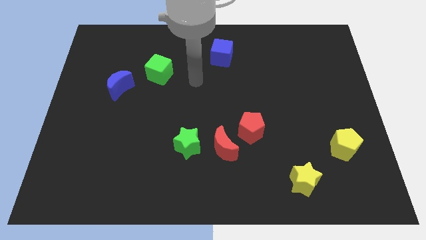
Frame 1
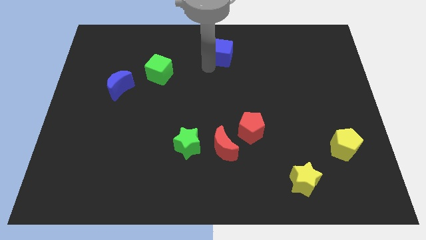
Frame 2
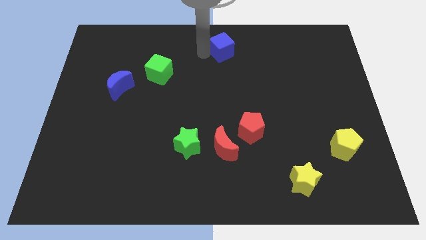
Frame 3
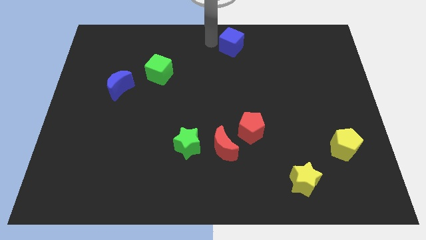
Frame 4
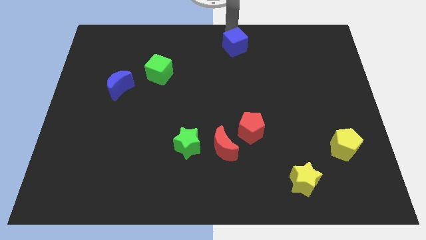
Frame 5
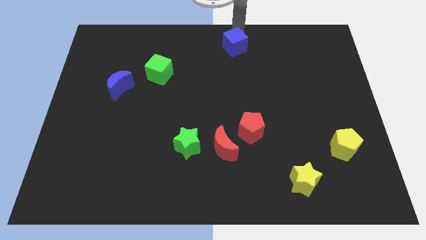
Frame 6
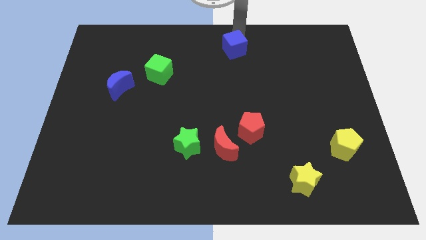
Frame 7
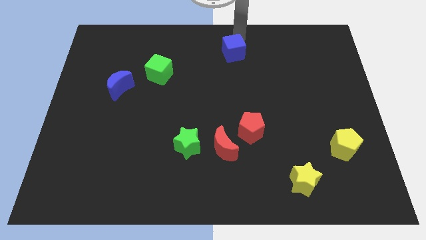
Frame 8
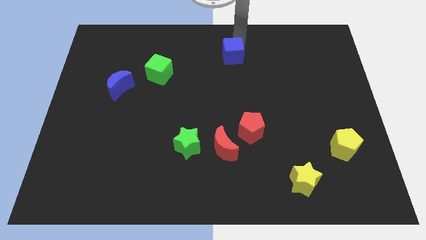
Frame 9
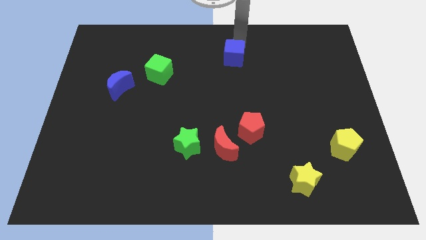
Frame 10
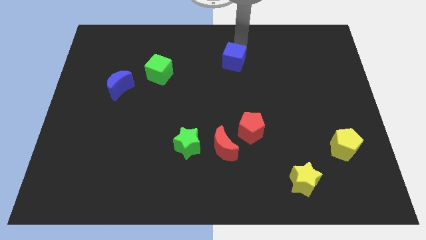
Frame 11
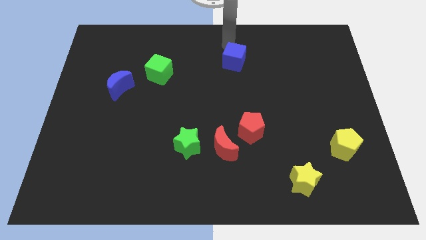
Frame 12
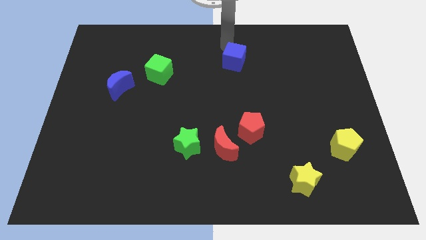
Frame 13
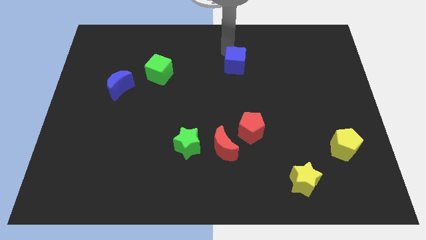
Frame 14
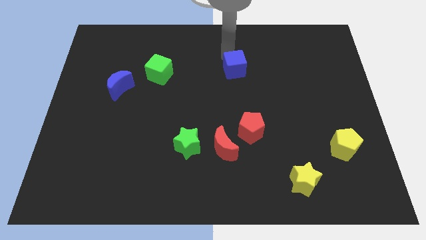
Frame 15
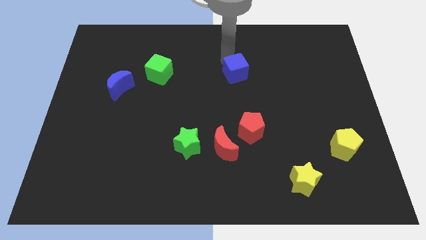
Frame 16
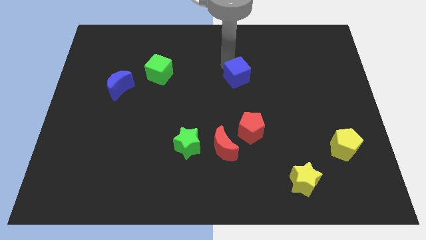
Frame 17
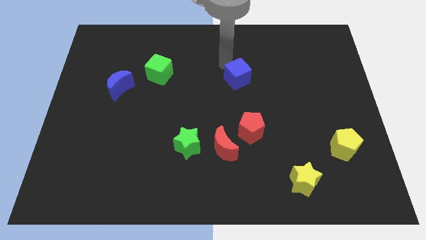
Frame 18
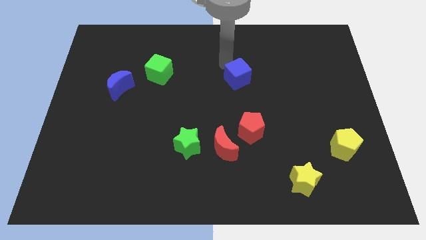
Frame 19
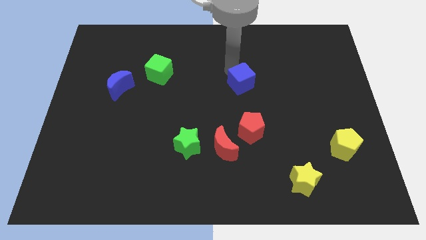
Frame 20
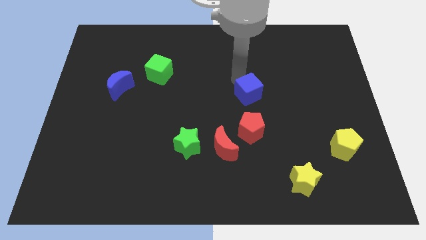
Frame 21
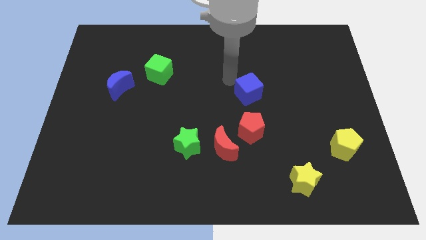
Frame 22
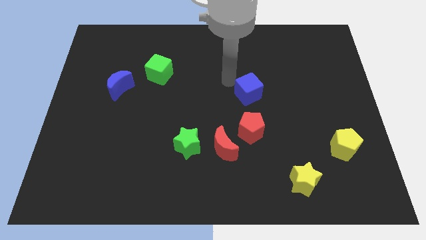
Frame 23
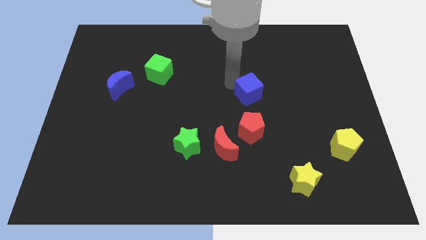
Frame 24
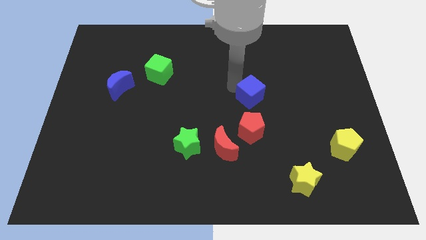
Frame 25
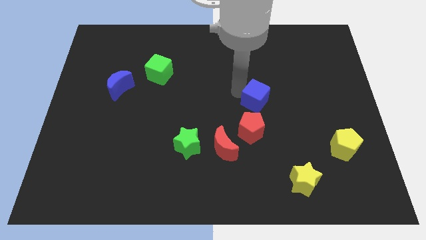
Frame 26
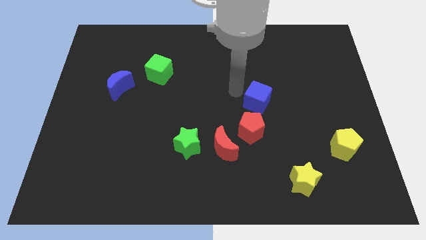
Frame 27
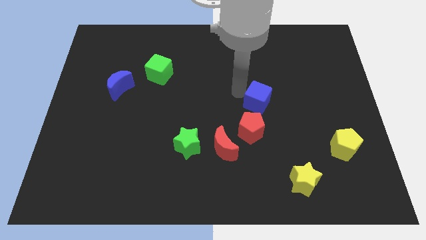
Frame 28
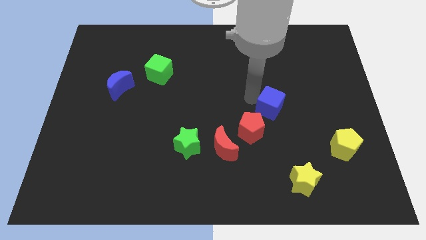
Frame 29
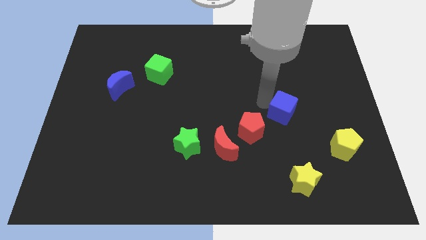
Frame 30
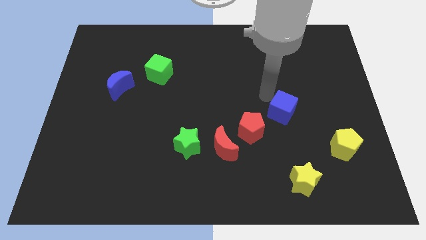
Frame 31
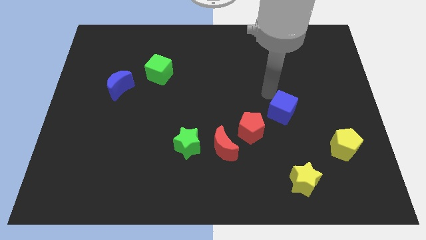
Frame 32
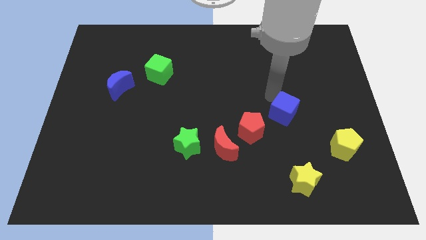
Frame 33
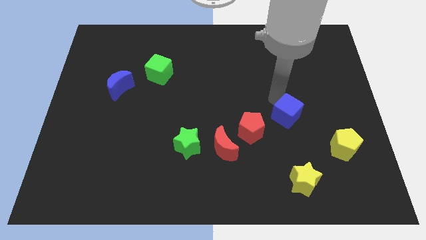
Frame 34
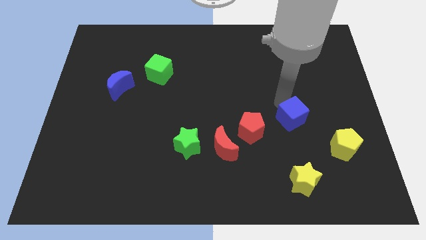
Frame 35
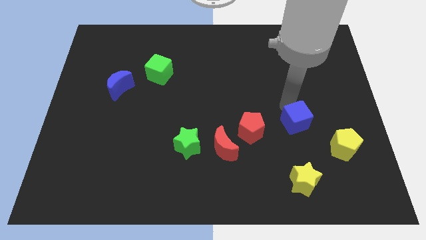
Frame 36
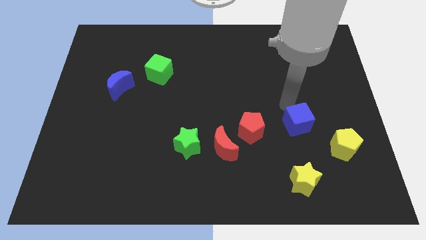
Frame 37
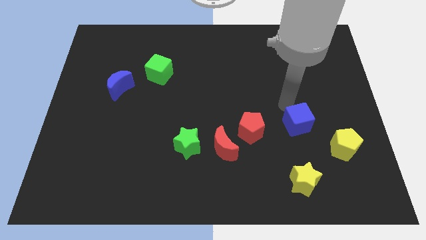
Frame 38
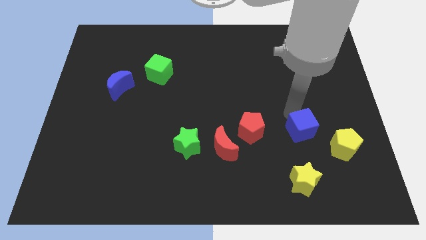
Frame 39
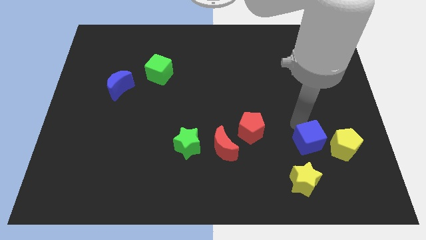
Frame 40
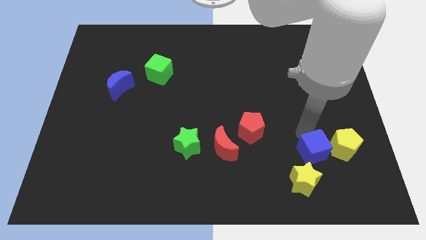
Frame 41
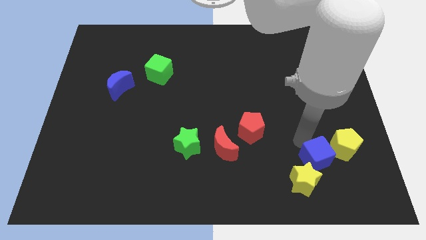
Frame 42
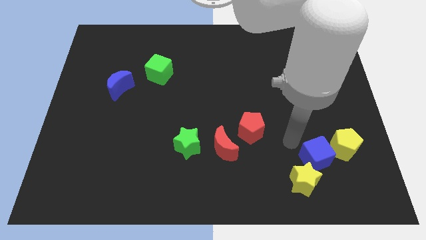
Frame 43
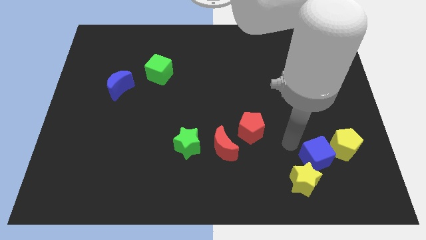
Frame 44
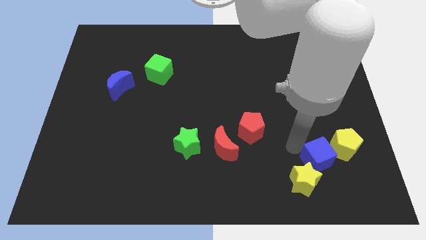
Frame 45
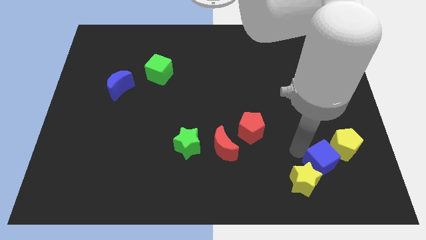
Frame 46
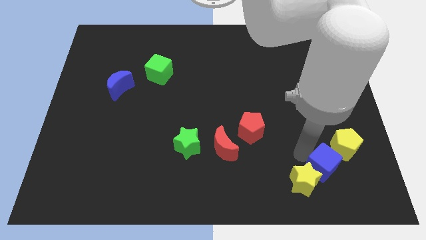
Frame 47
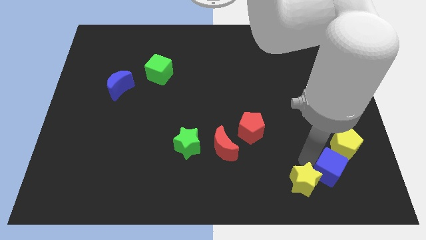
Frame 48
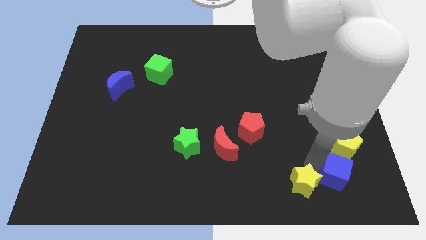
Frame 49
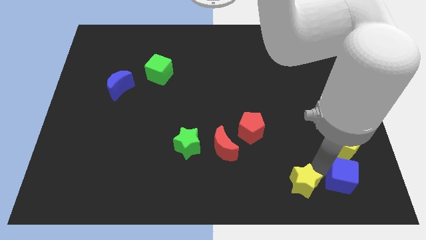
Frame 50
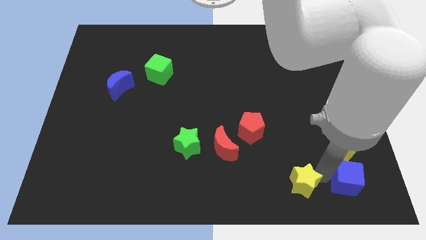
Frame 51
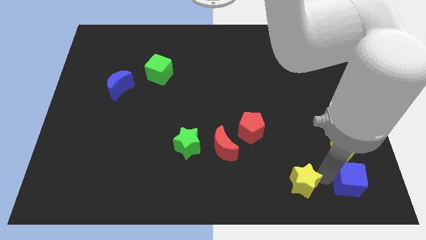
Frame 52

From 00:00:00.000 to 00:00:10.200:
put the blue cube to the bottom right

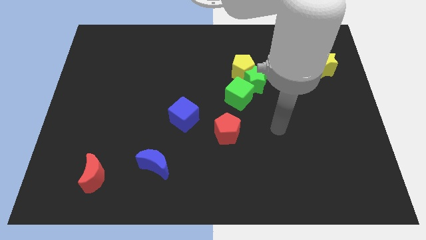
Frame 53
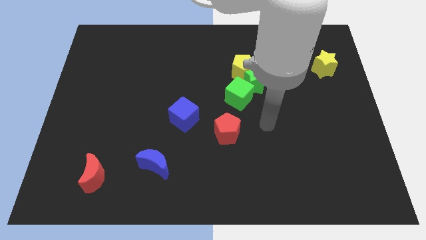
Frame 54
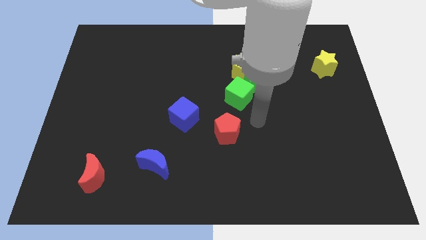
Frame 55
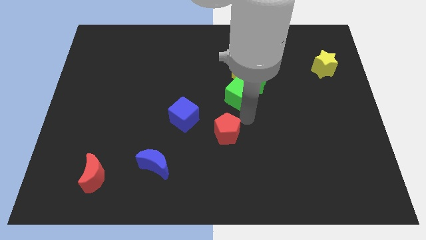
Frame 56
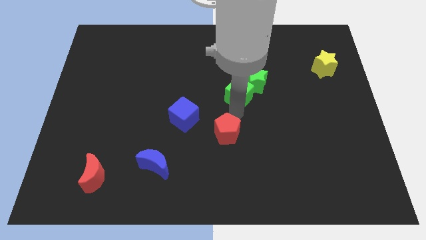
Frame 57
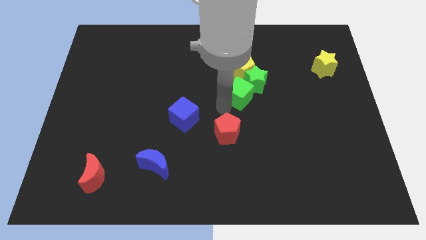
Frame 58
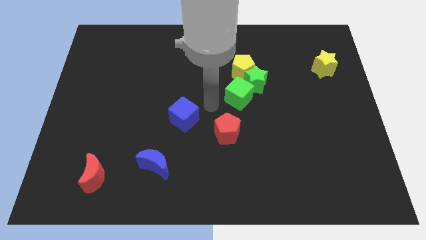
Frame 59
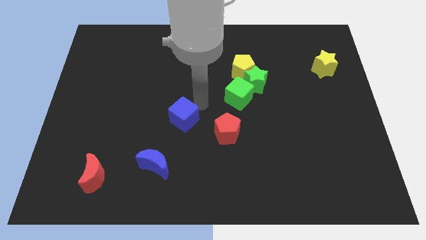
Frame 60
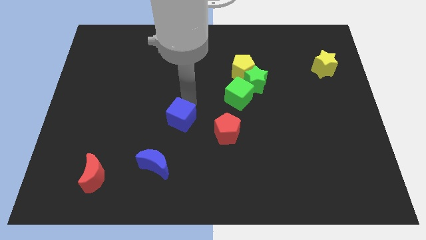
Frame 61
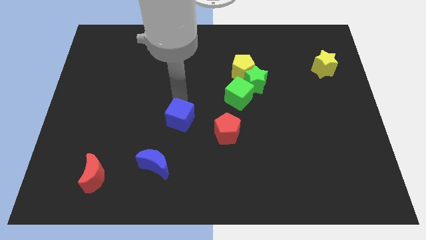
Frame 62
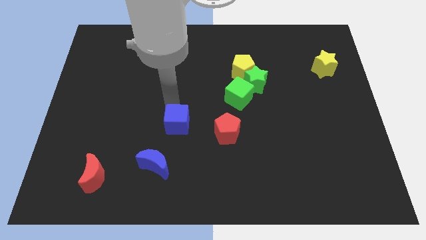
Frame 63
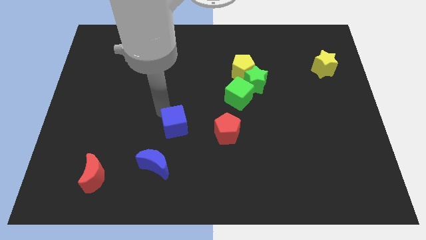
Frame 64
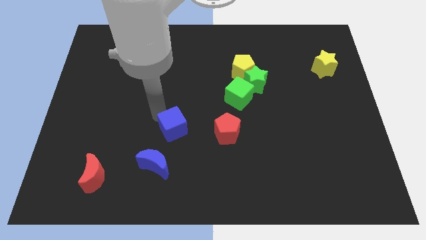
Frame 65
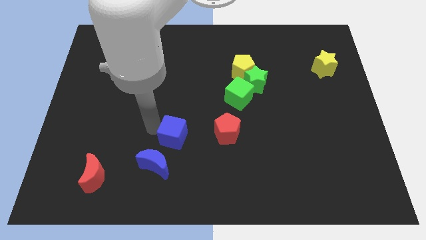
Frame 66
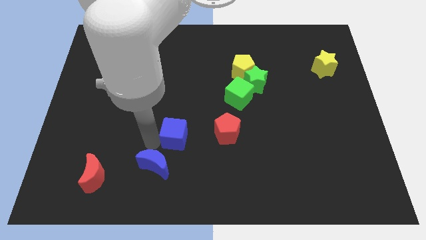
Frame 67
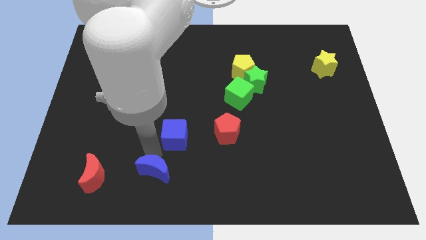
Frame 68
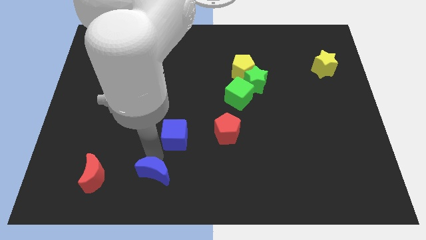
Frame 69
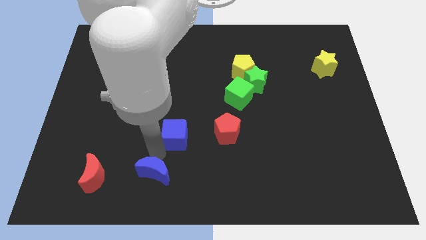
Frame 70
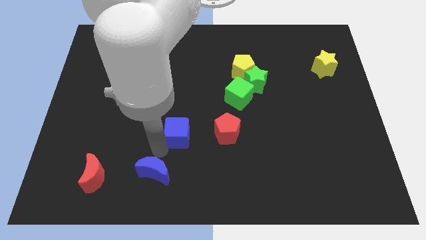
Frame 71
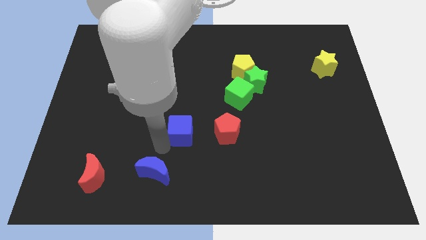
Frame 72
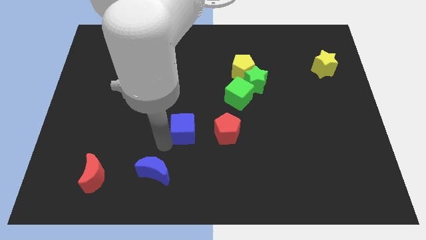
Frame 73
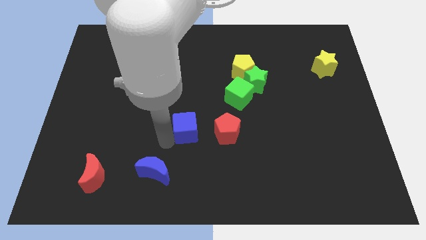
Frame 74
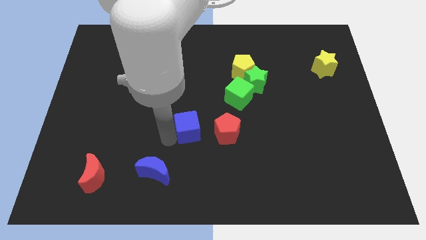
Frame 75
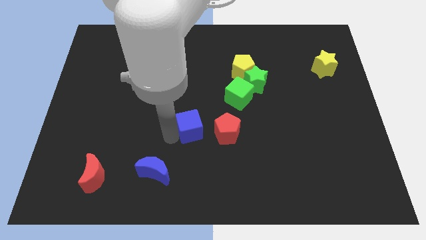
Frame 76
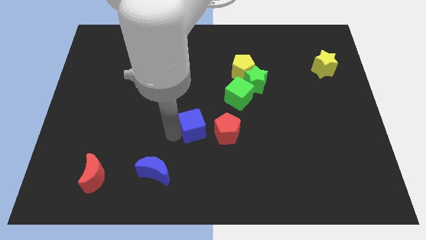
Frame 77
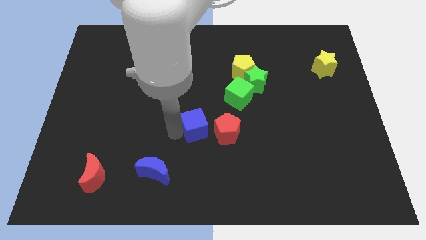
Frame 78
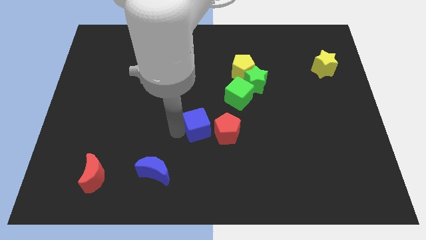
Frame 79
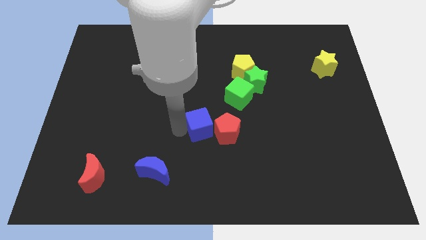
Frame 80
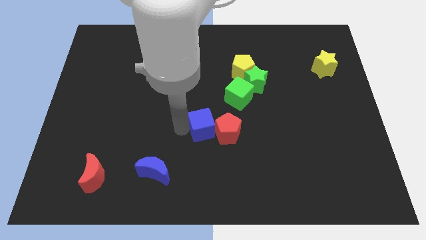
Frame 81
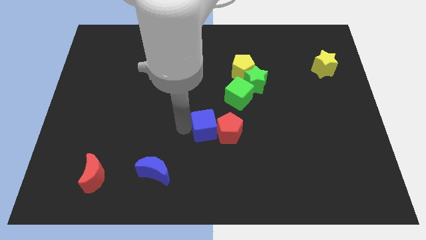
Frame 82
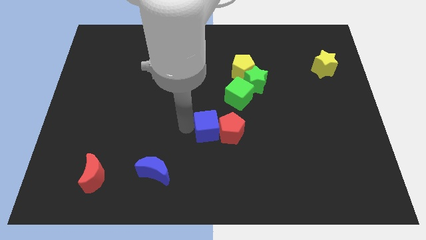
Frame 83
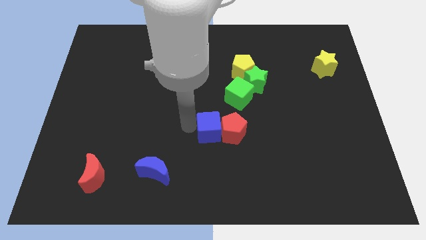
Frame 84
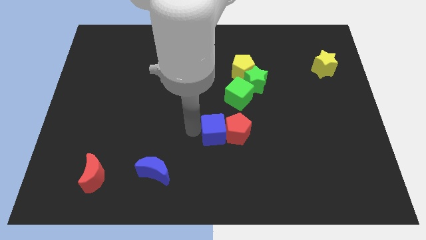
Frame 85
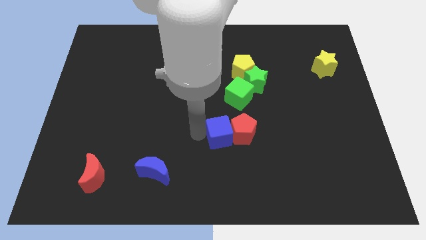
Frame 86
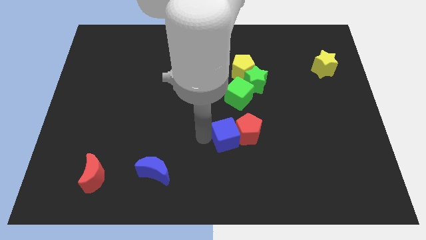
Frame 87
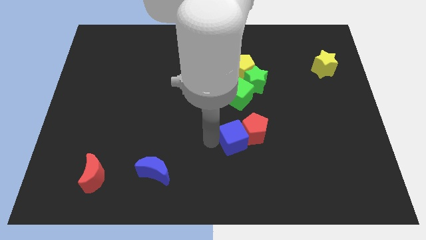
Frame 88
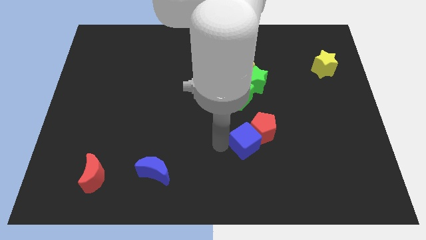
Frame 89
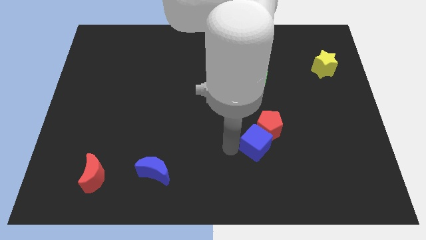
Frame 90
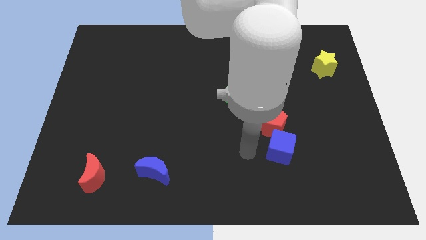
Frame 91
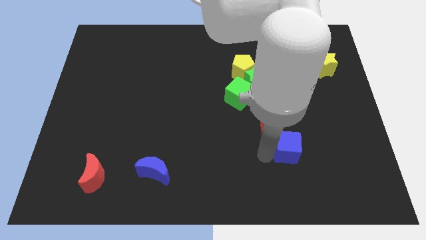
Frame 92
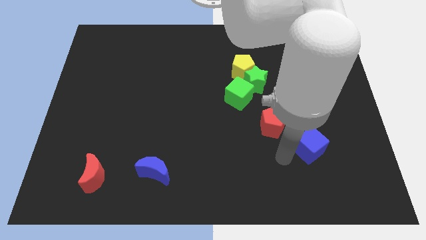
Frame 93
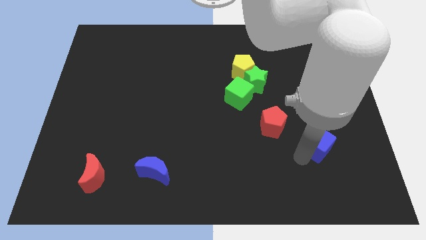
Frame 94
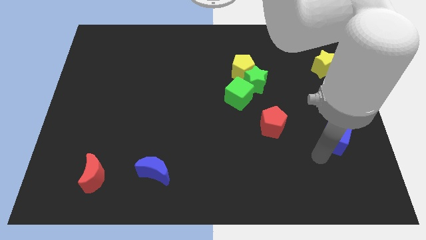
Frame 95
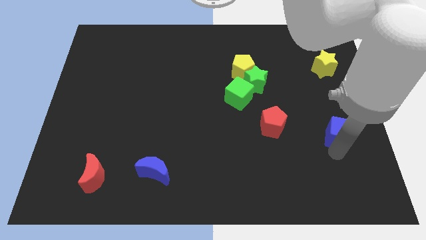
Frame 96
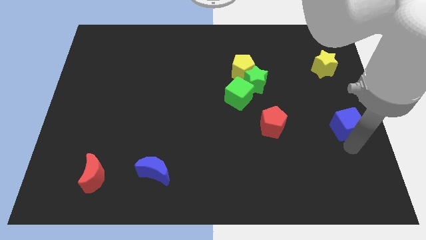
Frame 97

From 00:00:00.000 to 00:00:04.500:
slide the blue cube to the right side of the board
